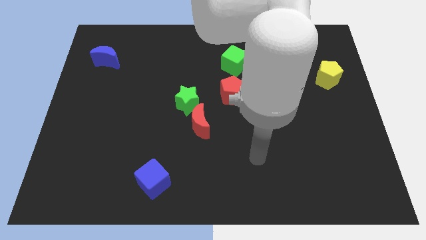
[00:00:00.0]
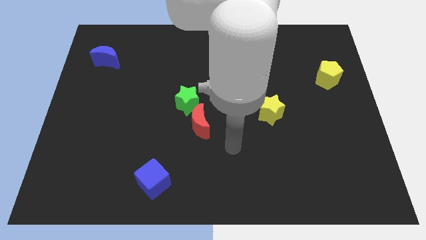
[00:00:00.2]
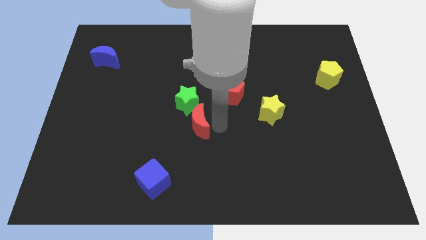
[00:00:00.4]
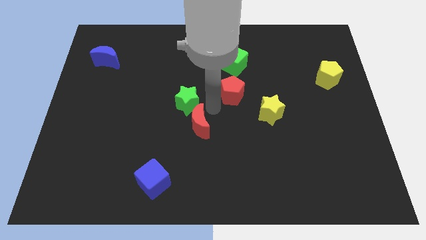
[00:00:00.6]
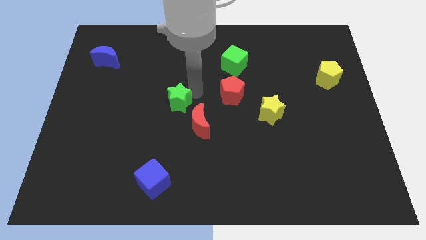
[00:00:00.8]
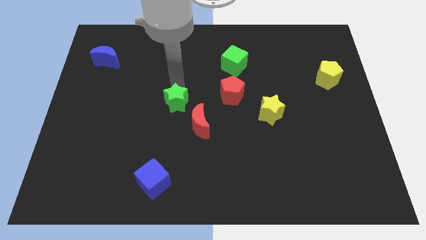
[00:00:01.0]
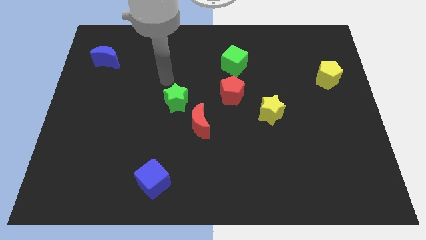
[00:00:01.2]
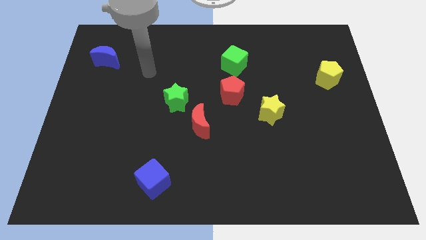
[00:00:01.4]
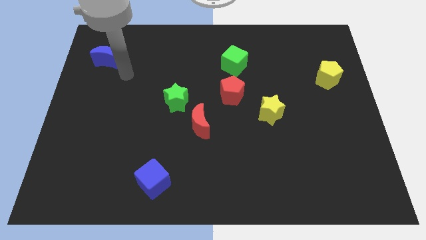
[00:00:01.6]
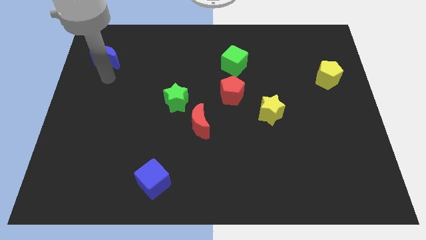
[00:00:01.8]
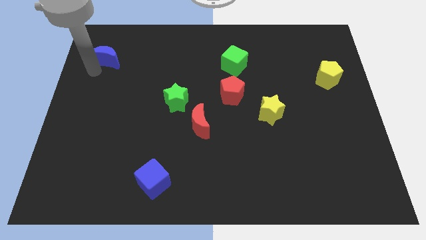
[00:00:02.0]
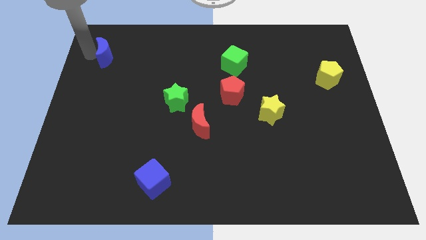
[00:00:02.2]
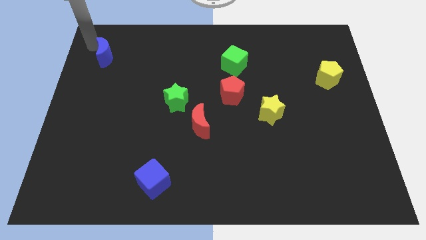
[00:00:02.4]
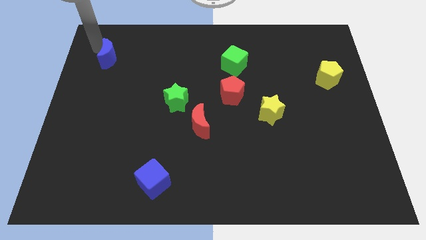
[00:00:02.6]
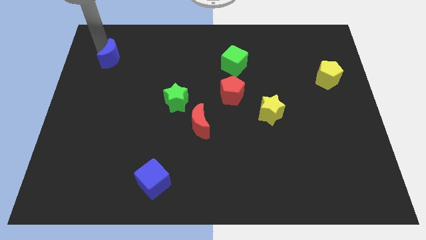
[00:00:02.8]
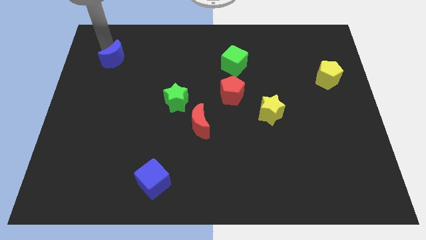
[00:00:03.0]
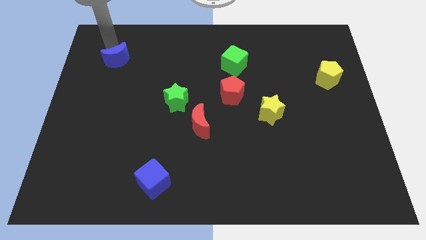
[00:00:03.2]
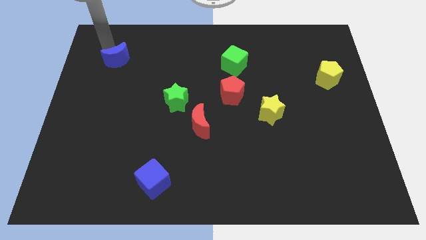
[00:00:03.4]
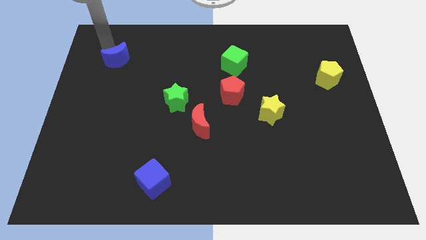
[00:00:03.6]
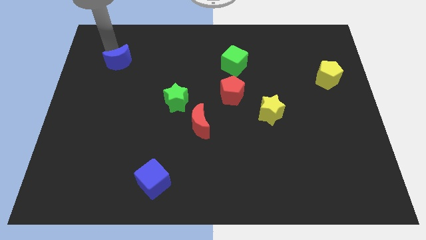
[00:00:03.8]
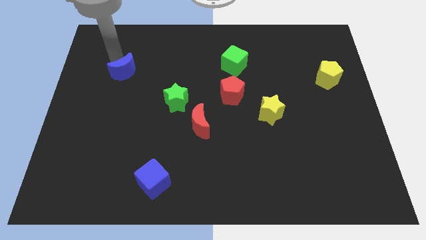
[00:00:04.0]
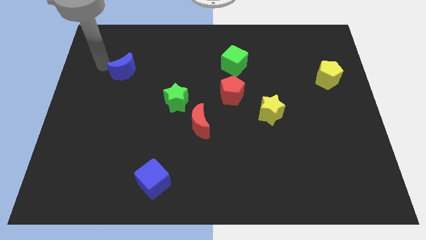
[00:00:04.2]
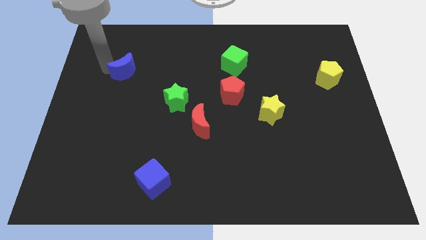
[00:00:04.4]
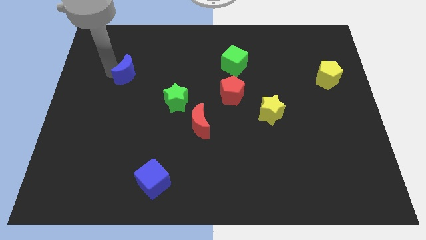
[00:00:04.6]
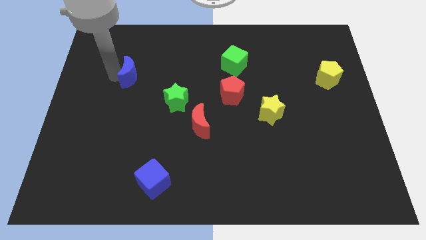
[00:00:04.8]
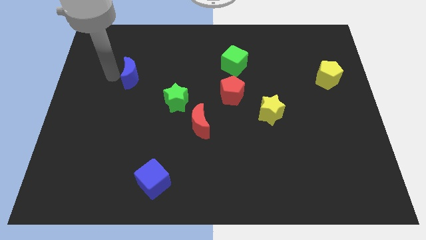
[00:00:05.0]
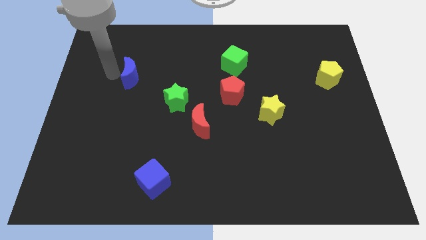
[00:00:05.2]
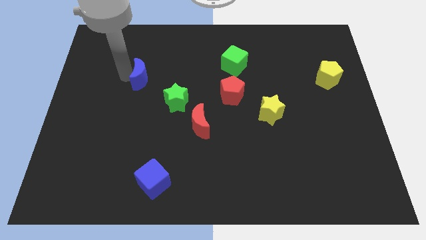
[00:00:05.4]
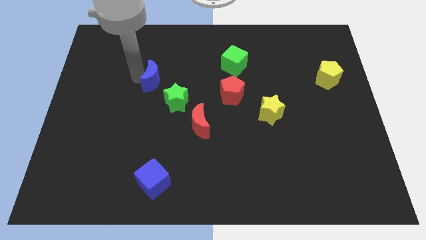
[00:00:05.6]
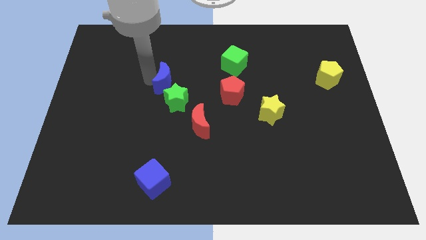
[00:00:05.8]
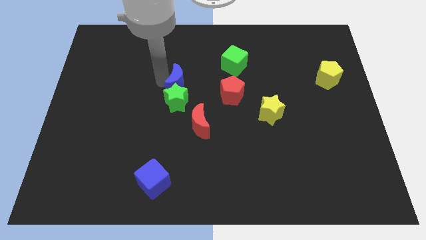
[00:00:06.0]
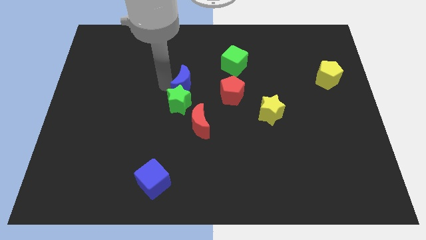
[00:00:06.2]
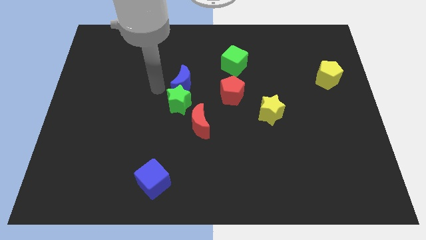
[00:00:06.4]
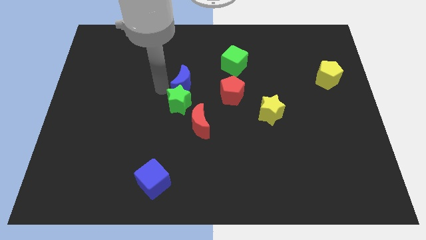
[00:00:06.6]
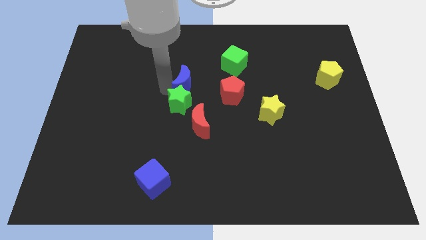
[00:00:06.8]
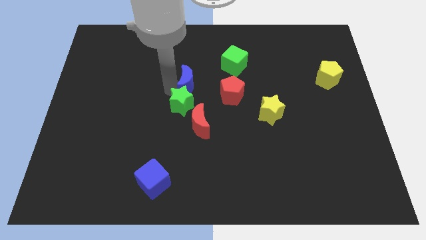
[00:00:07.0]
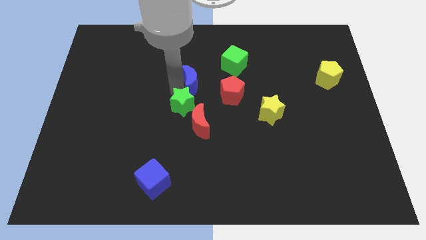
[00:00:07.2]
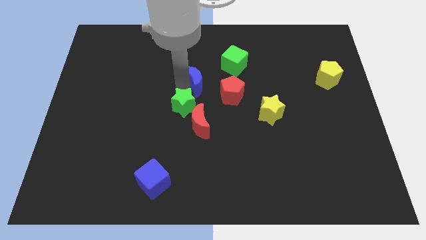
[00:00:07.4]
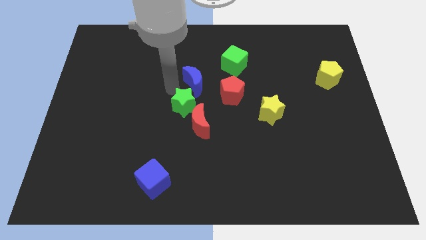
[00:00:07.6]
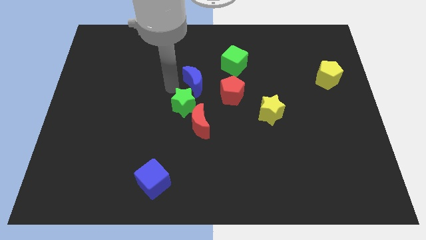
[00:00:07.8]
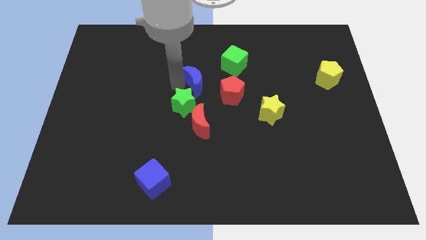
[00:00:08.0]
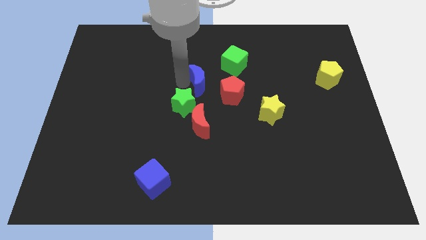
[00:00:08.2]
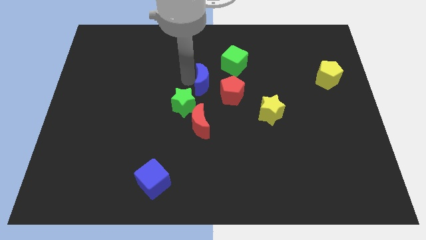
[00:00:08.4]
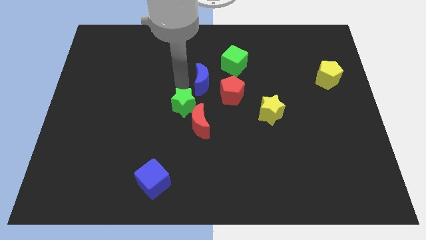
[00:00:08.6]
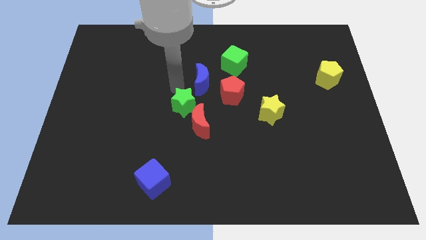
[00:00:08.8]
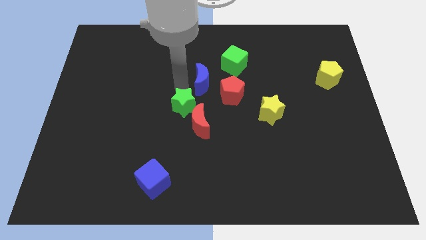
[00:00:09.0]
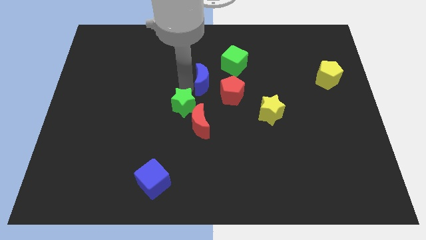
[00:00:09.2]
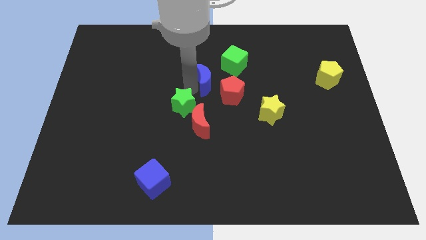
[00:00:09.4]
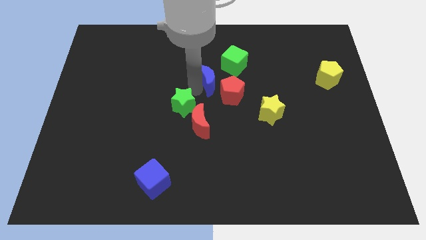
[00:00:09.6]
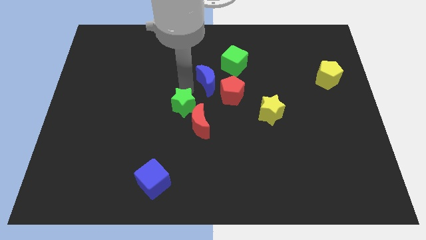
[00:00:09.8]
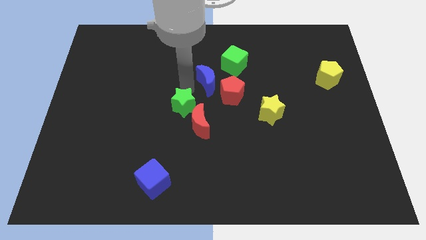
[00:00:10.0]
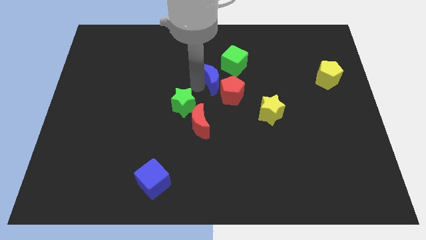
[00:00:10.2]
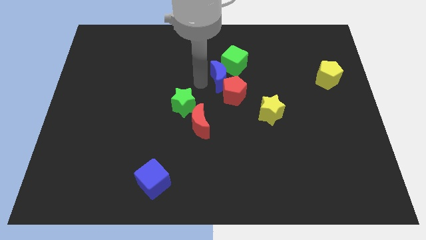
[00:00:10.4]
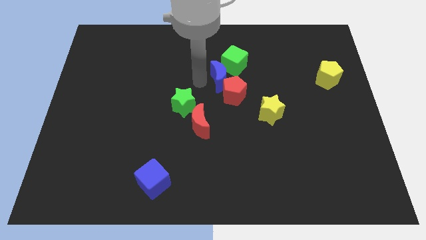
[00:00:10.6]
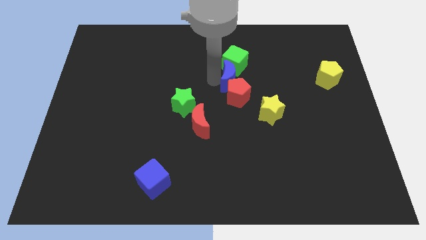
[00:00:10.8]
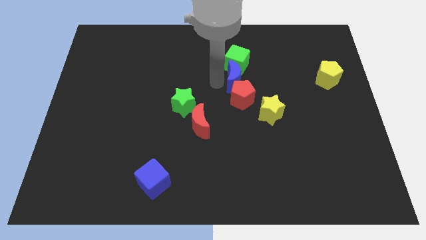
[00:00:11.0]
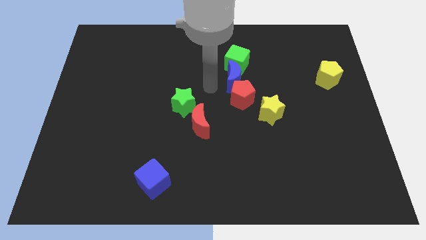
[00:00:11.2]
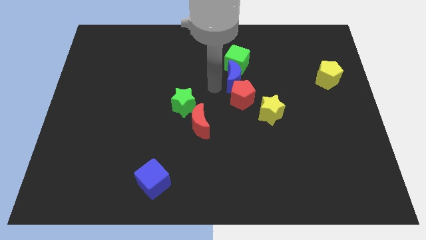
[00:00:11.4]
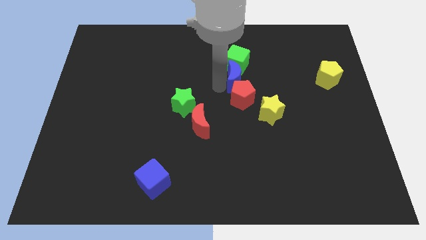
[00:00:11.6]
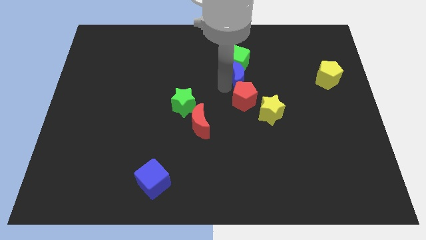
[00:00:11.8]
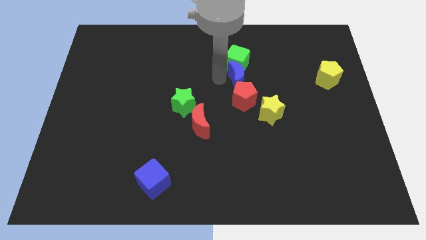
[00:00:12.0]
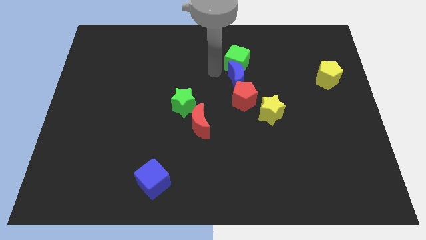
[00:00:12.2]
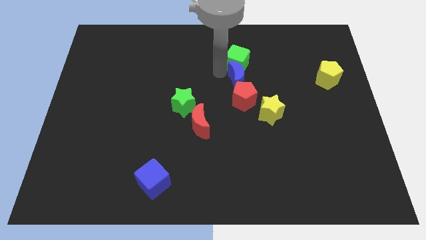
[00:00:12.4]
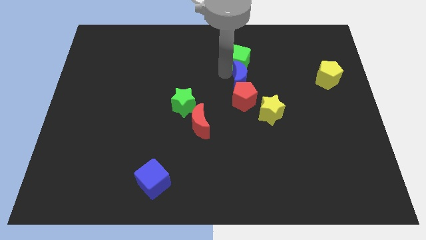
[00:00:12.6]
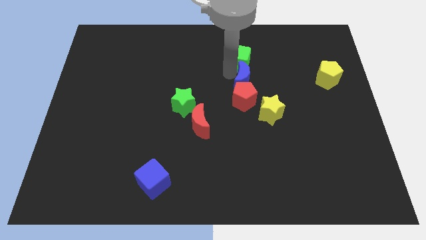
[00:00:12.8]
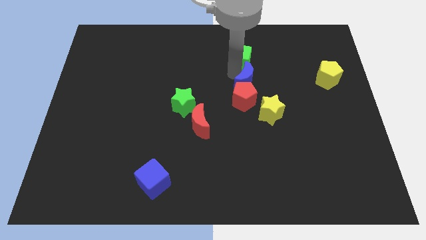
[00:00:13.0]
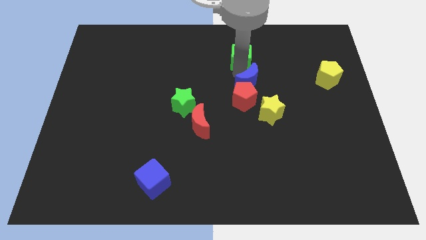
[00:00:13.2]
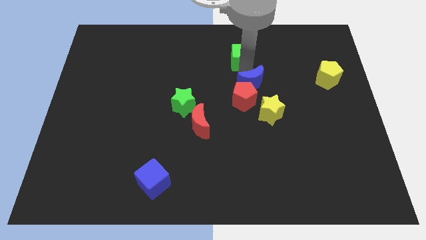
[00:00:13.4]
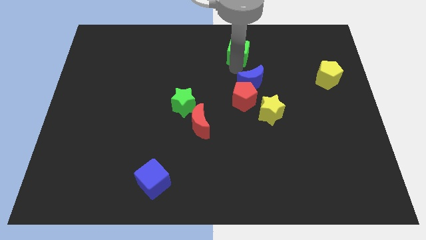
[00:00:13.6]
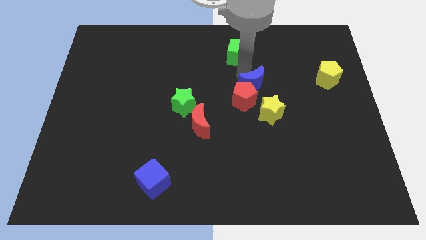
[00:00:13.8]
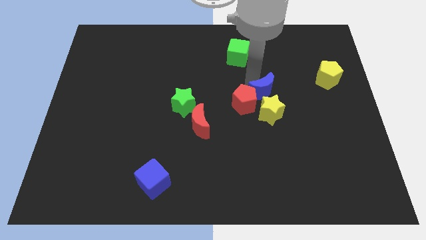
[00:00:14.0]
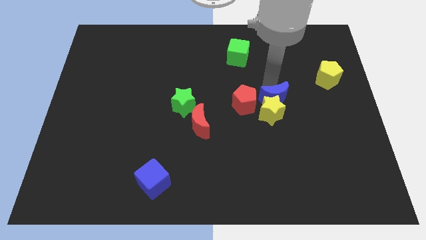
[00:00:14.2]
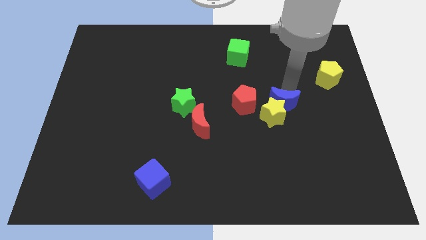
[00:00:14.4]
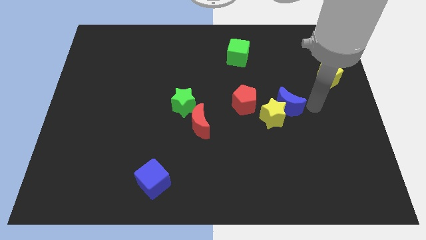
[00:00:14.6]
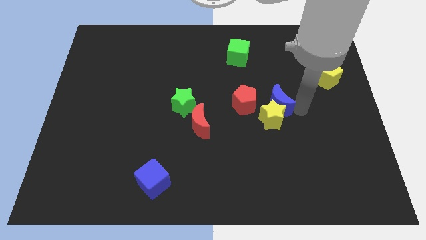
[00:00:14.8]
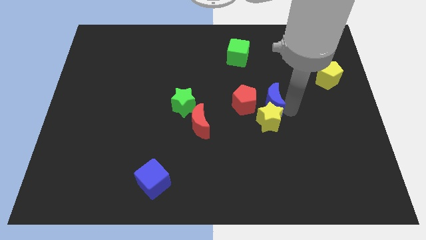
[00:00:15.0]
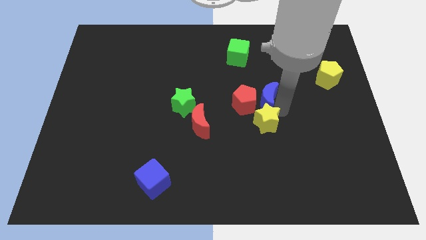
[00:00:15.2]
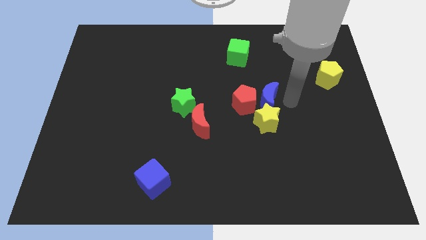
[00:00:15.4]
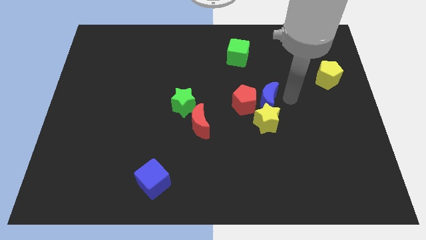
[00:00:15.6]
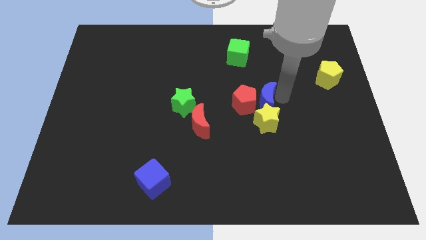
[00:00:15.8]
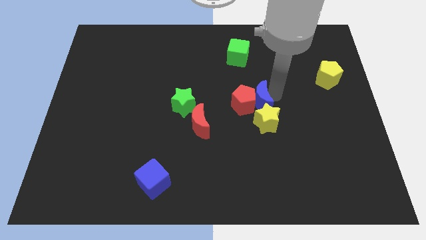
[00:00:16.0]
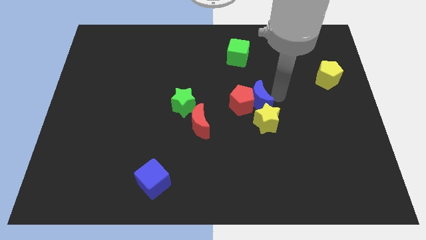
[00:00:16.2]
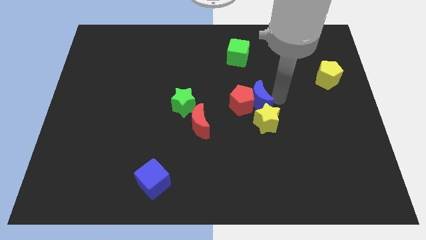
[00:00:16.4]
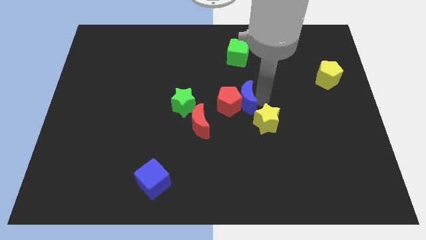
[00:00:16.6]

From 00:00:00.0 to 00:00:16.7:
move the blue moon to the right side of the green star
